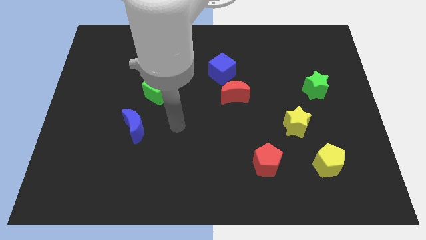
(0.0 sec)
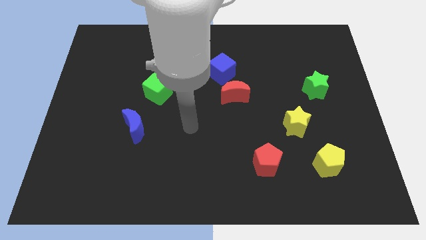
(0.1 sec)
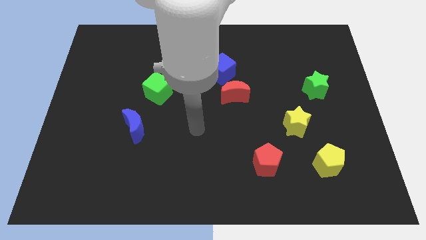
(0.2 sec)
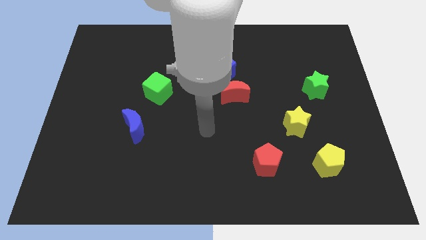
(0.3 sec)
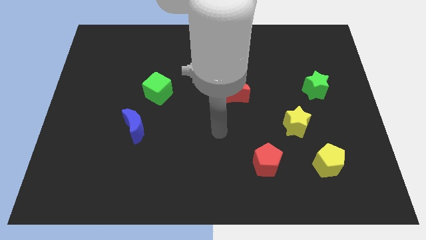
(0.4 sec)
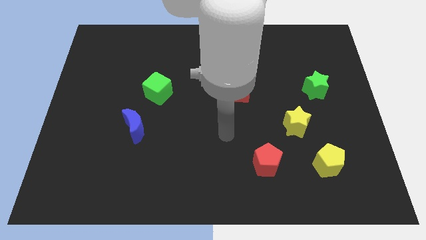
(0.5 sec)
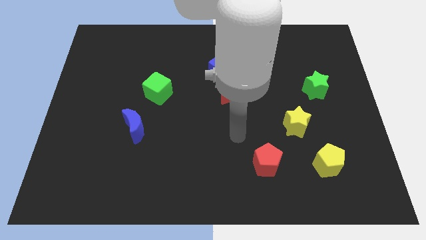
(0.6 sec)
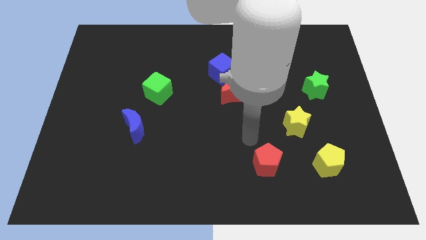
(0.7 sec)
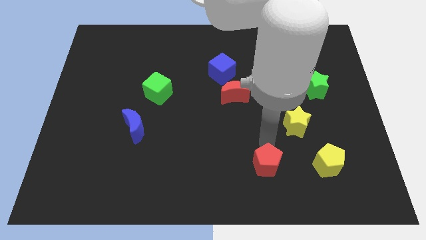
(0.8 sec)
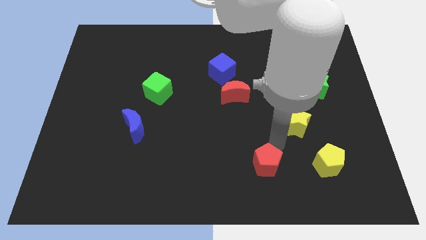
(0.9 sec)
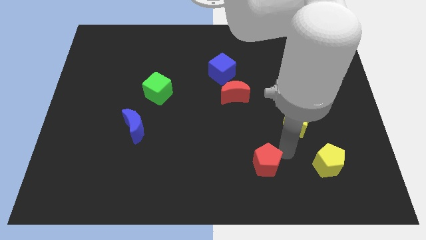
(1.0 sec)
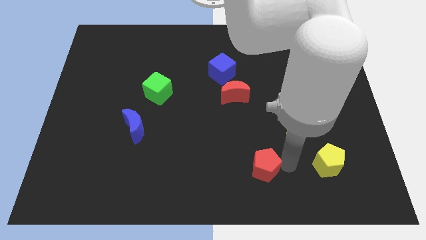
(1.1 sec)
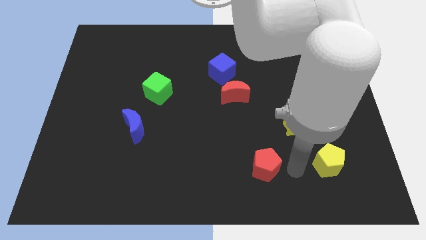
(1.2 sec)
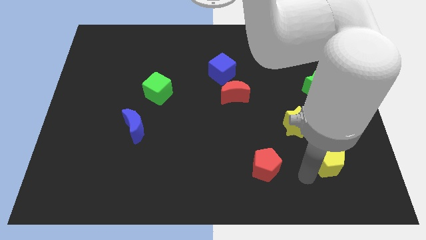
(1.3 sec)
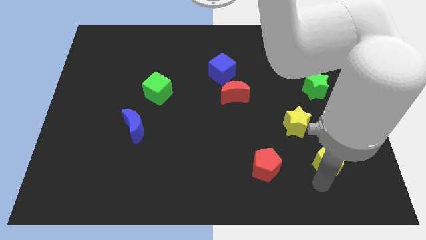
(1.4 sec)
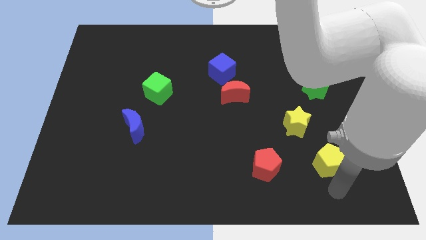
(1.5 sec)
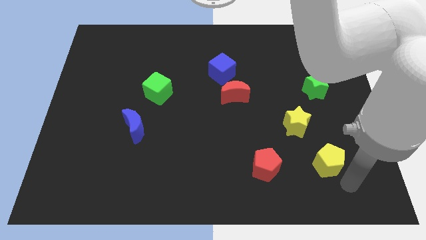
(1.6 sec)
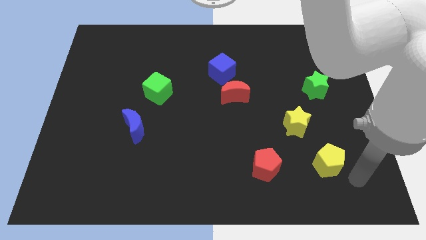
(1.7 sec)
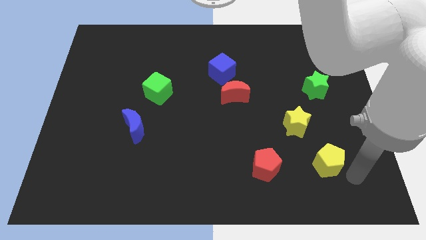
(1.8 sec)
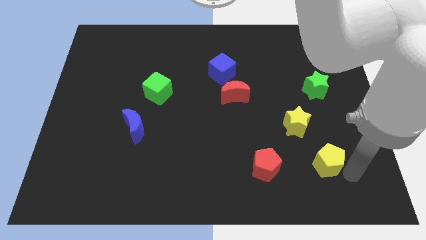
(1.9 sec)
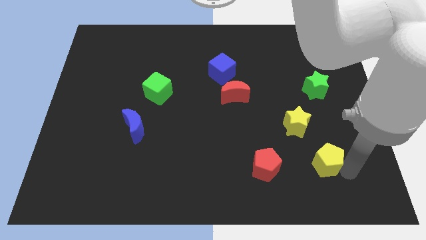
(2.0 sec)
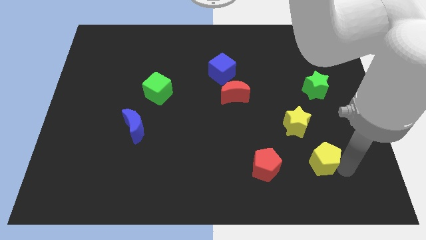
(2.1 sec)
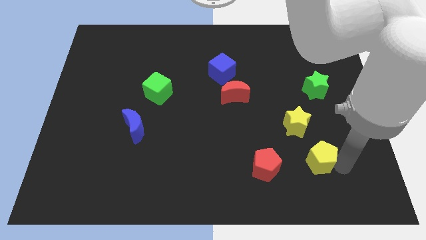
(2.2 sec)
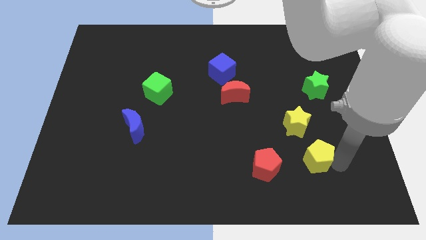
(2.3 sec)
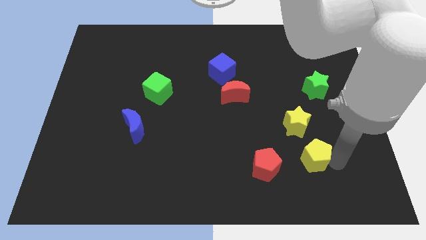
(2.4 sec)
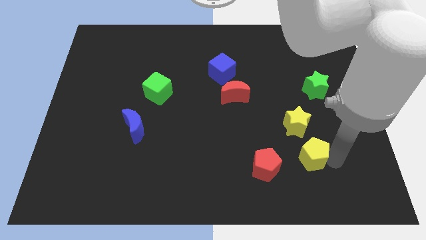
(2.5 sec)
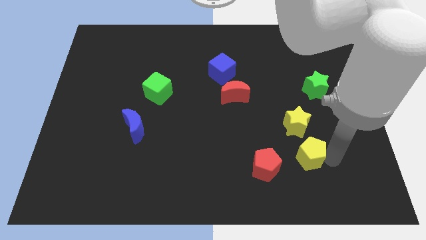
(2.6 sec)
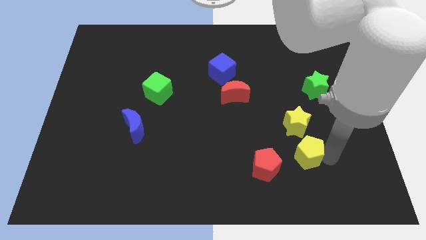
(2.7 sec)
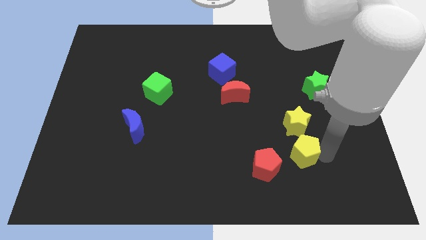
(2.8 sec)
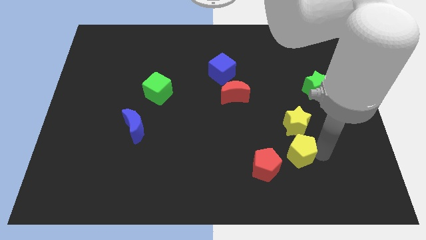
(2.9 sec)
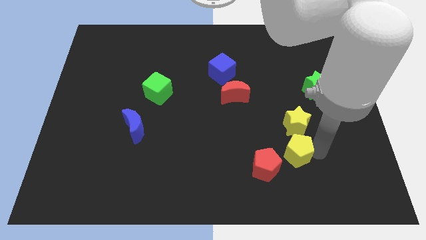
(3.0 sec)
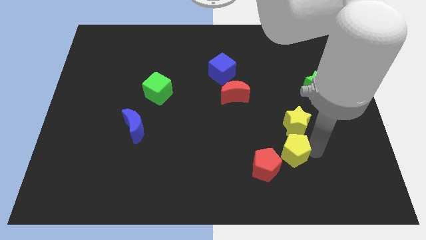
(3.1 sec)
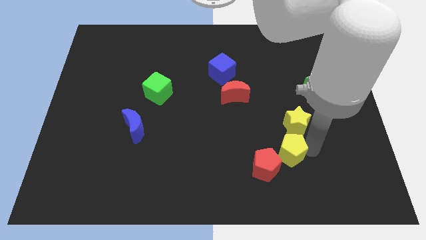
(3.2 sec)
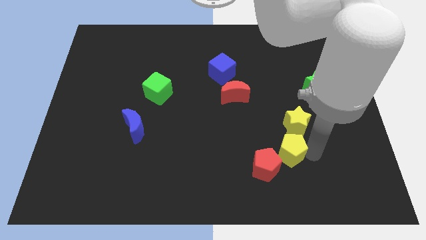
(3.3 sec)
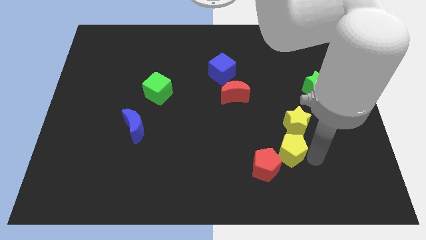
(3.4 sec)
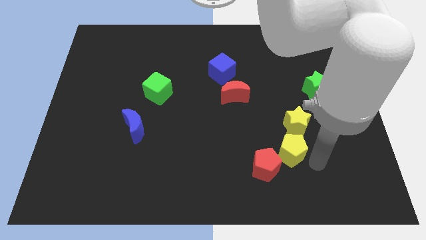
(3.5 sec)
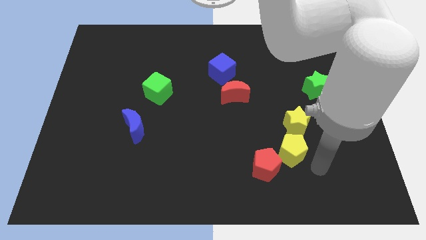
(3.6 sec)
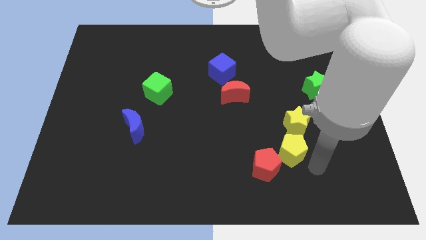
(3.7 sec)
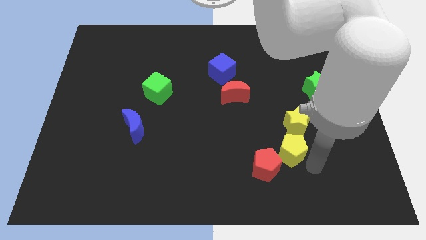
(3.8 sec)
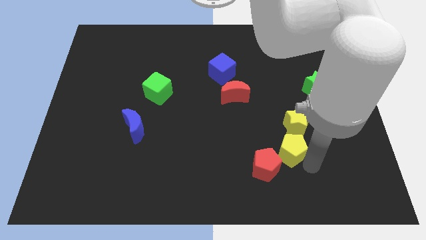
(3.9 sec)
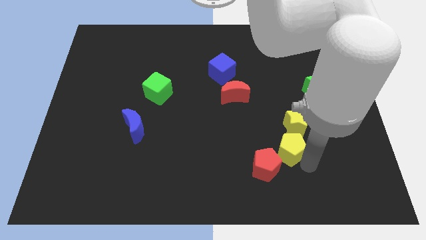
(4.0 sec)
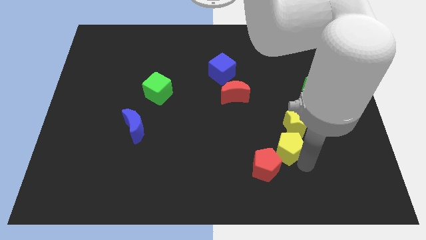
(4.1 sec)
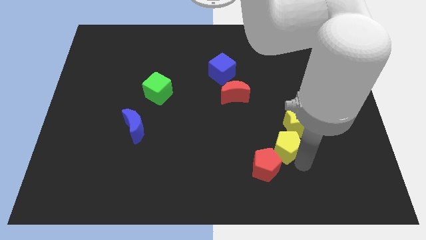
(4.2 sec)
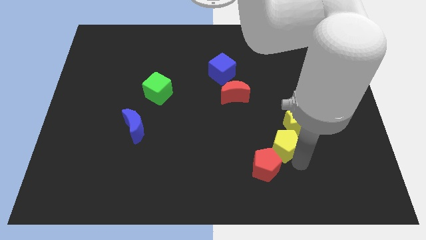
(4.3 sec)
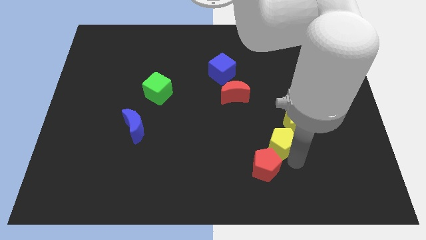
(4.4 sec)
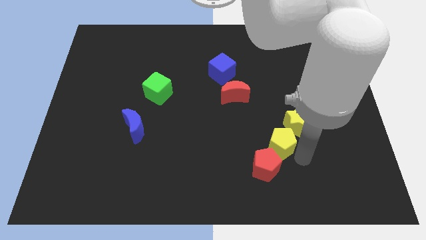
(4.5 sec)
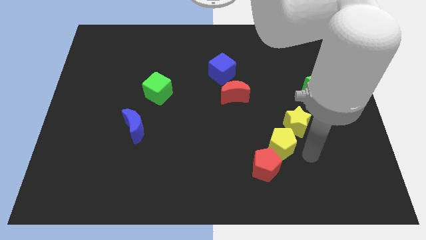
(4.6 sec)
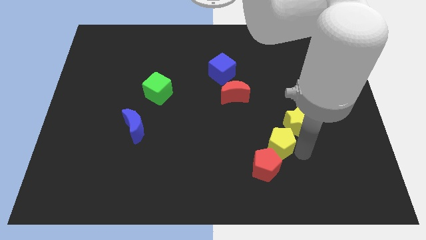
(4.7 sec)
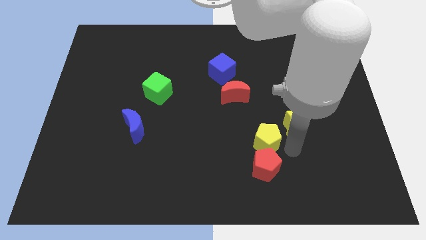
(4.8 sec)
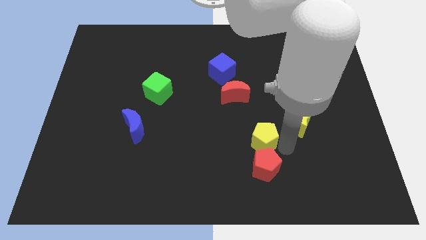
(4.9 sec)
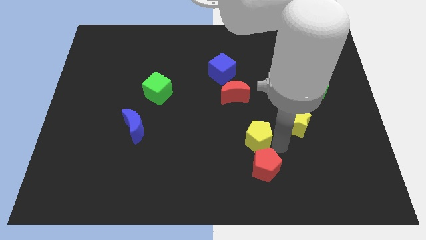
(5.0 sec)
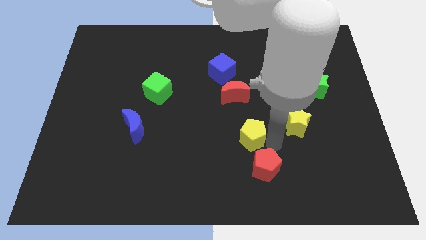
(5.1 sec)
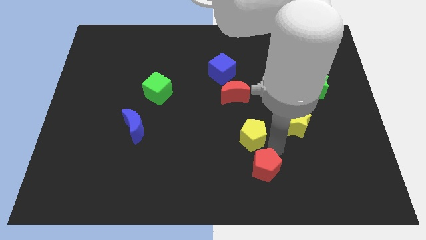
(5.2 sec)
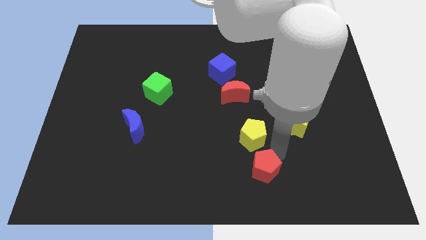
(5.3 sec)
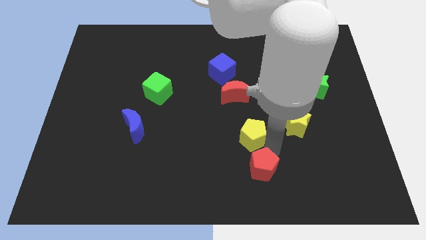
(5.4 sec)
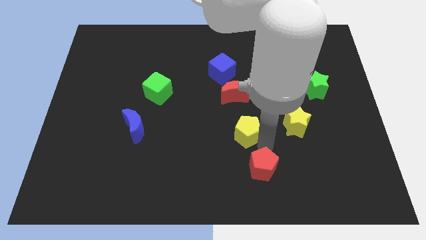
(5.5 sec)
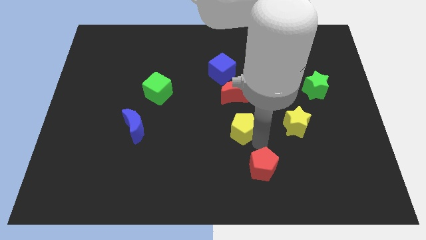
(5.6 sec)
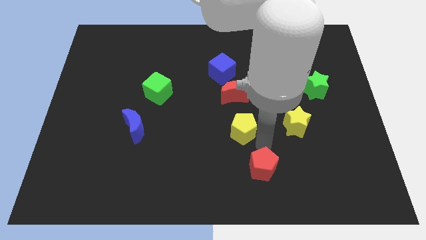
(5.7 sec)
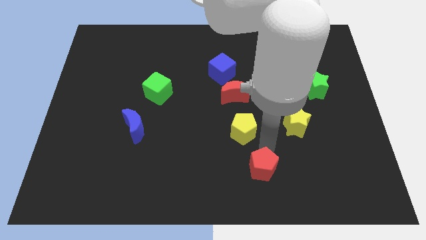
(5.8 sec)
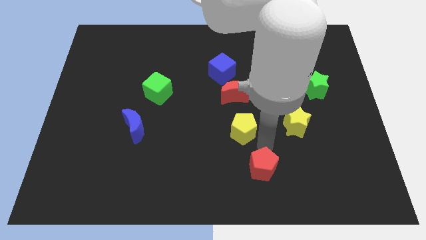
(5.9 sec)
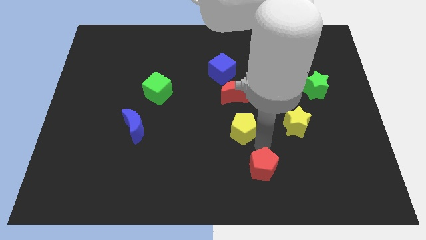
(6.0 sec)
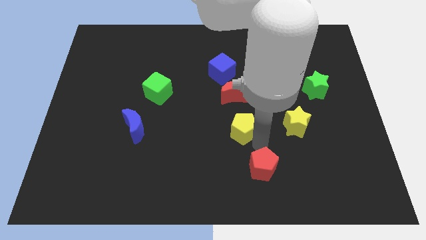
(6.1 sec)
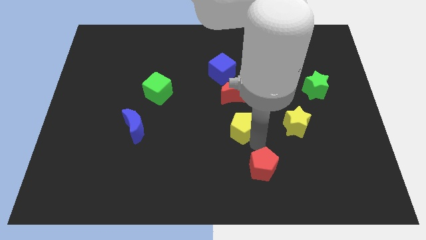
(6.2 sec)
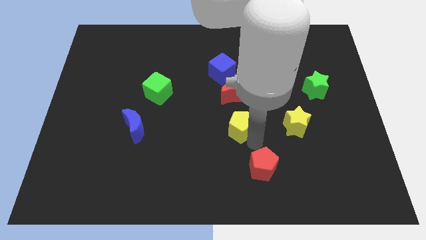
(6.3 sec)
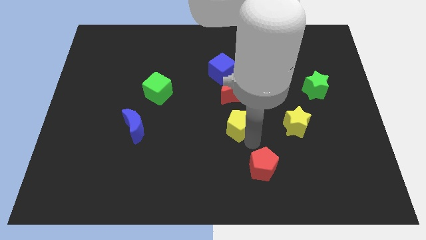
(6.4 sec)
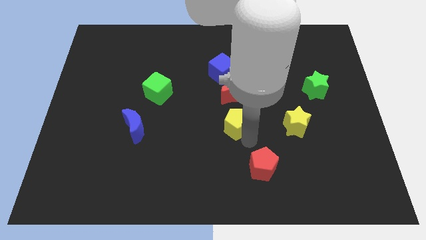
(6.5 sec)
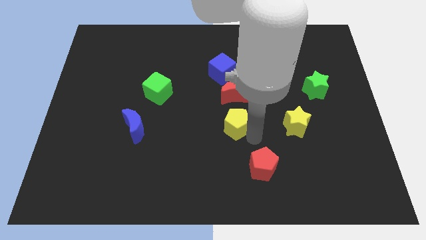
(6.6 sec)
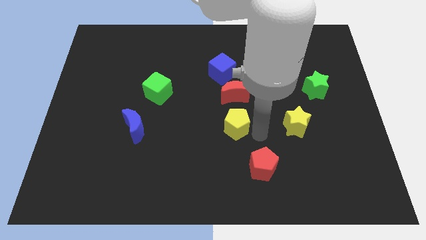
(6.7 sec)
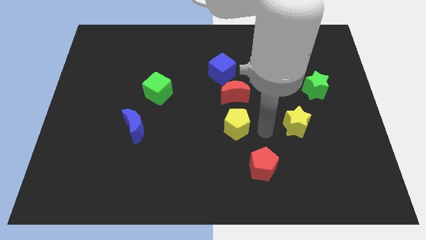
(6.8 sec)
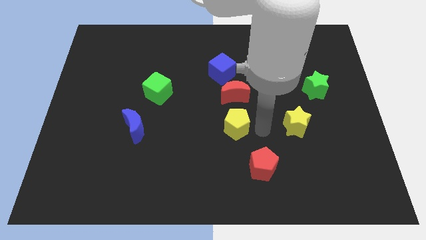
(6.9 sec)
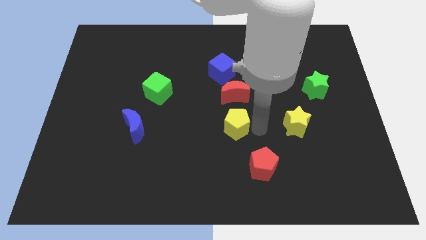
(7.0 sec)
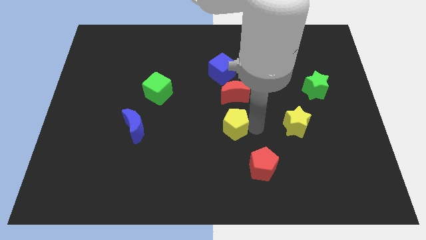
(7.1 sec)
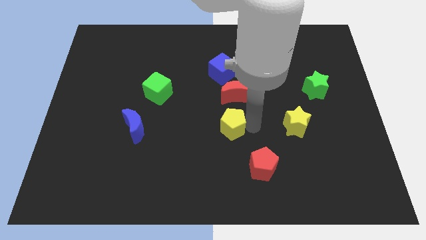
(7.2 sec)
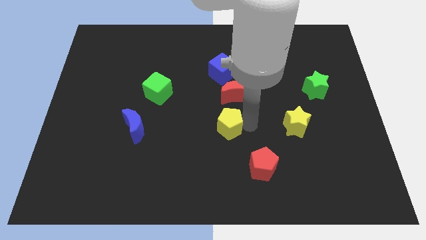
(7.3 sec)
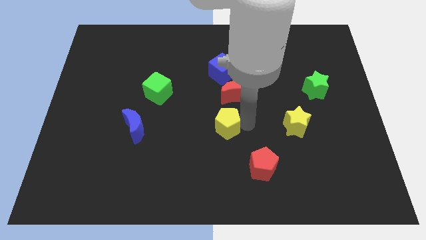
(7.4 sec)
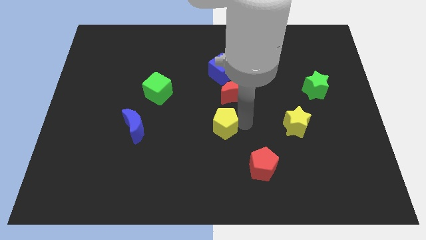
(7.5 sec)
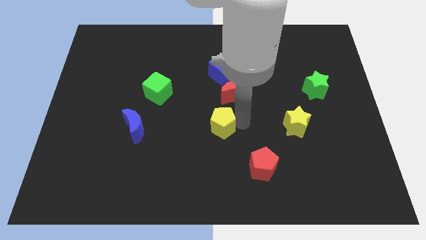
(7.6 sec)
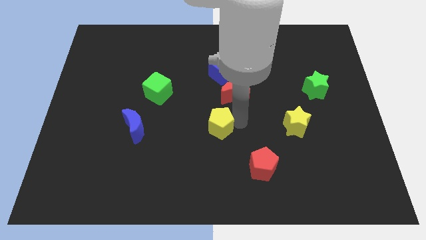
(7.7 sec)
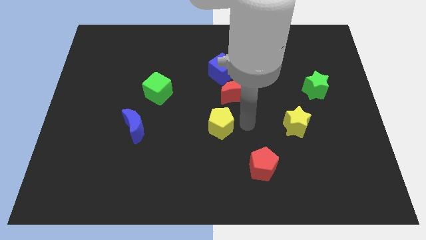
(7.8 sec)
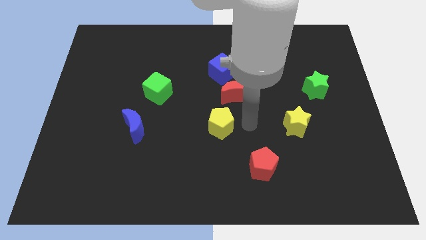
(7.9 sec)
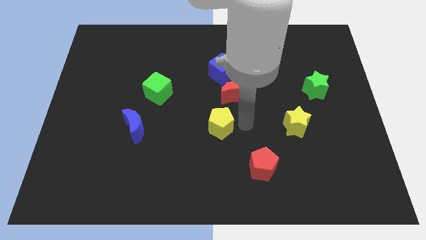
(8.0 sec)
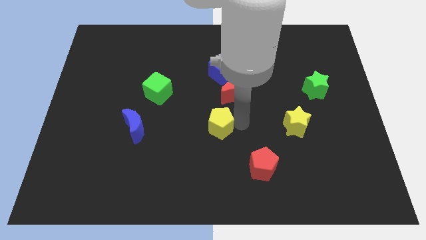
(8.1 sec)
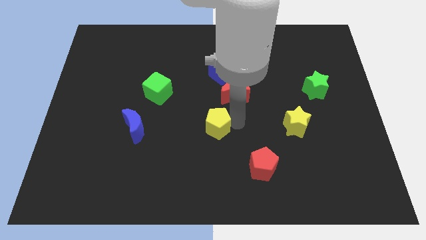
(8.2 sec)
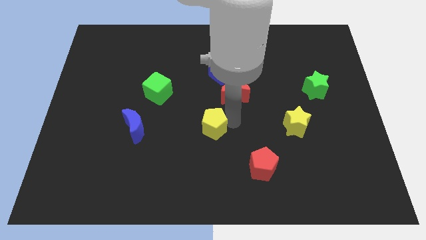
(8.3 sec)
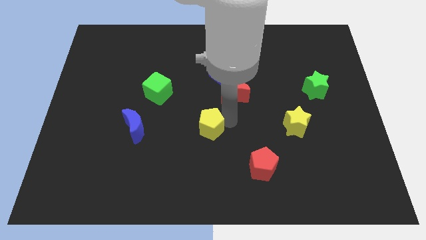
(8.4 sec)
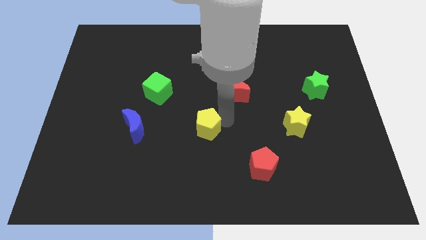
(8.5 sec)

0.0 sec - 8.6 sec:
move the yellow pentagon to the right side of the blue moon
